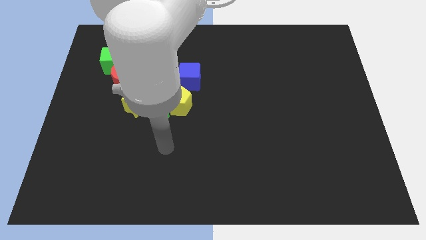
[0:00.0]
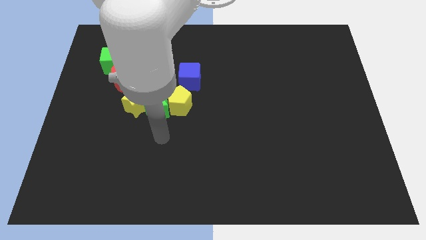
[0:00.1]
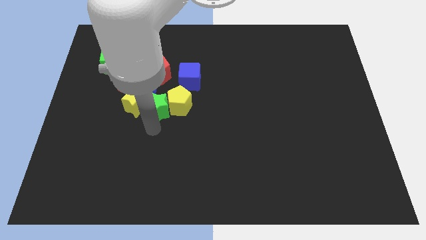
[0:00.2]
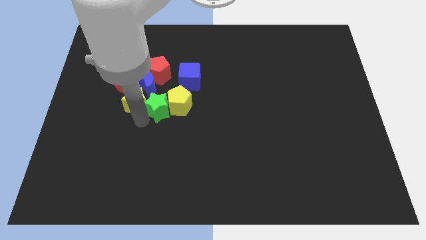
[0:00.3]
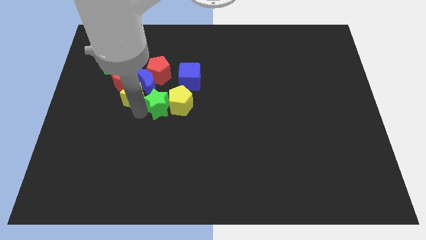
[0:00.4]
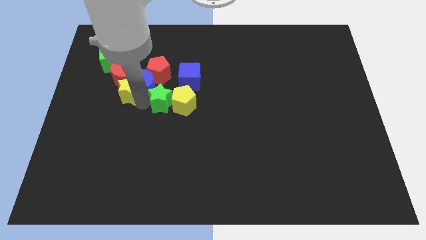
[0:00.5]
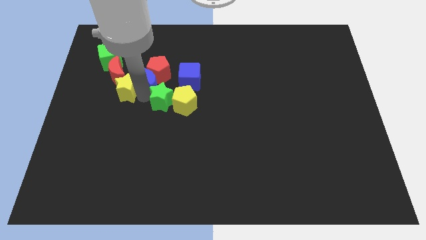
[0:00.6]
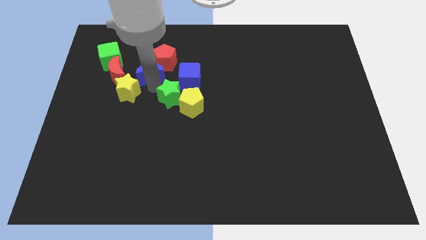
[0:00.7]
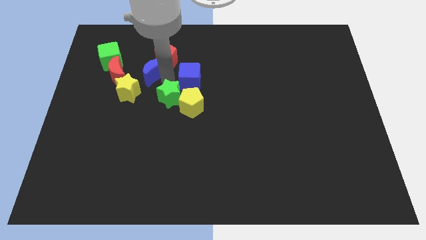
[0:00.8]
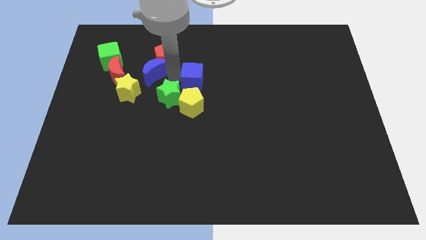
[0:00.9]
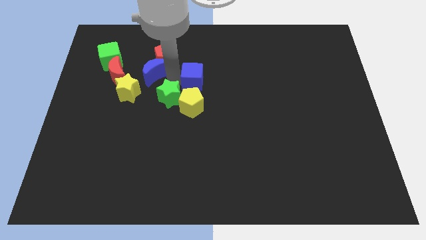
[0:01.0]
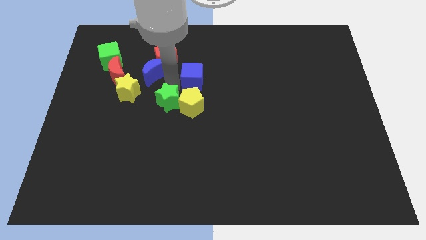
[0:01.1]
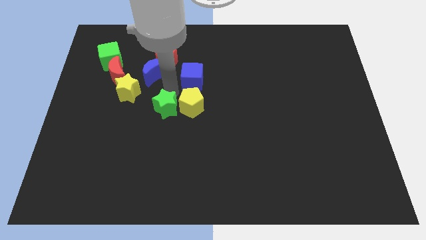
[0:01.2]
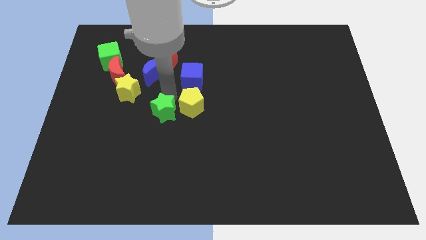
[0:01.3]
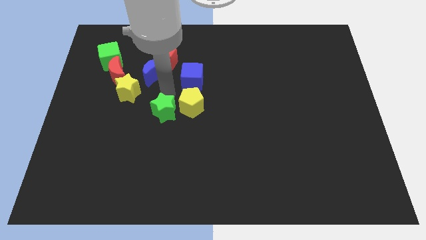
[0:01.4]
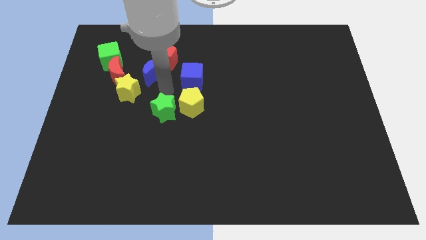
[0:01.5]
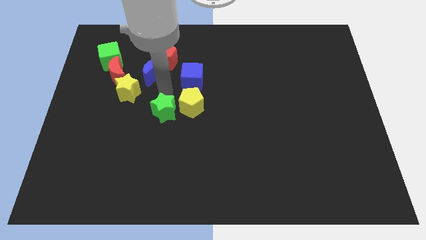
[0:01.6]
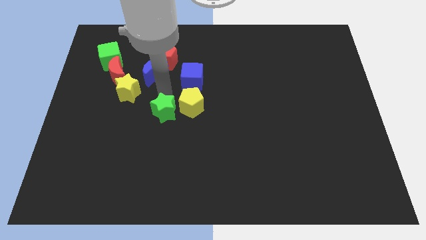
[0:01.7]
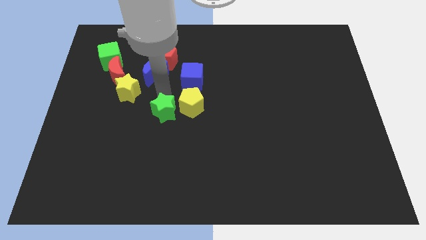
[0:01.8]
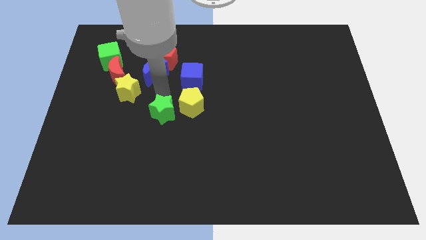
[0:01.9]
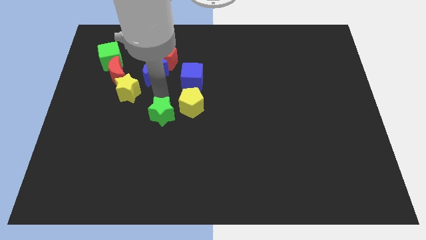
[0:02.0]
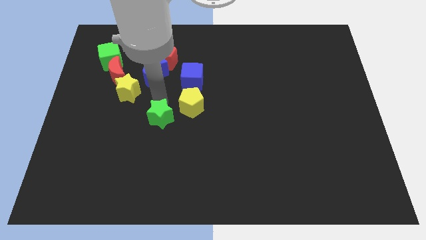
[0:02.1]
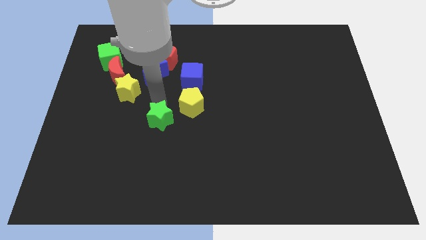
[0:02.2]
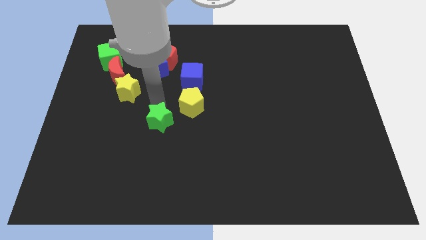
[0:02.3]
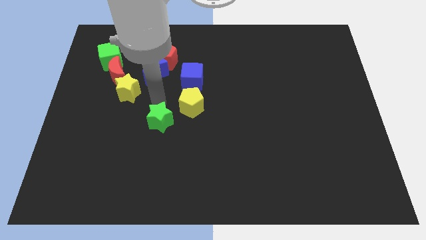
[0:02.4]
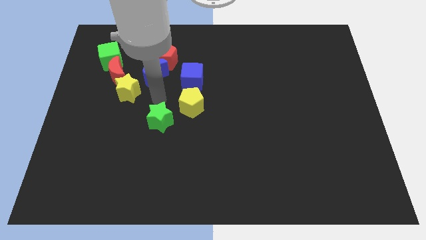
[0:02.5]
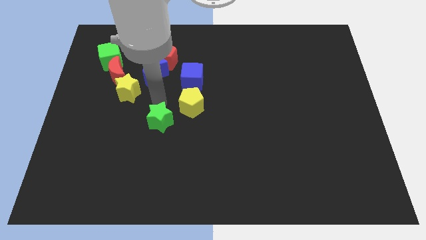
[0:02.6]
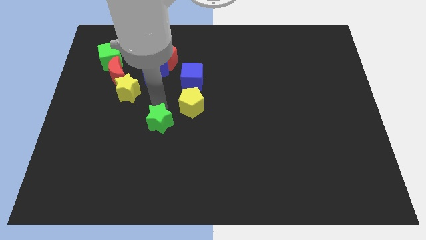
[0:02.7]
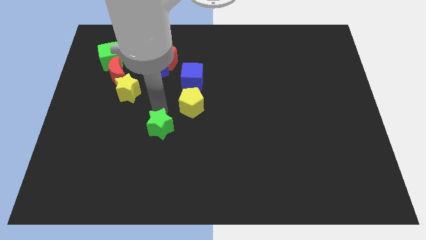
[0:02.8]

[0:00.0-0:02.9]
separate the green star from the yellow pentagon, yellow star, and blue moon

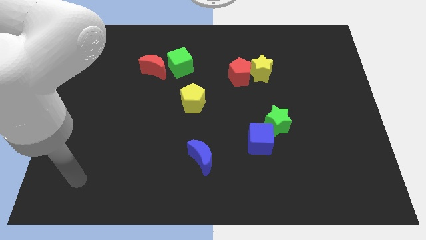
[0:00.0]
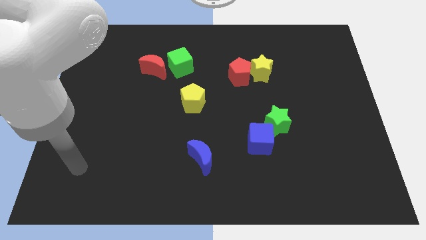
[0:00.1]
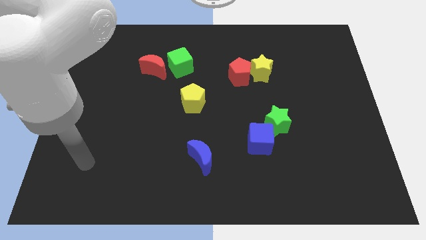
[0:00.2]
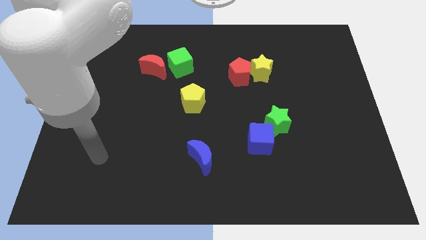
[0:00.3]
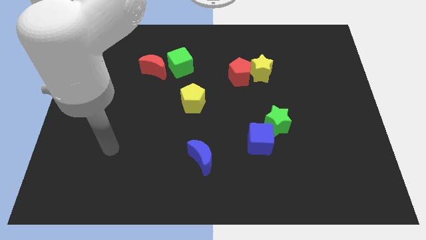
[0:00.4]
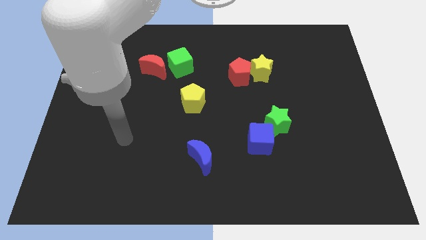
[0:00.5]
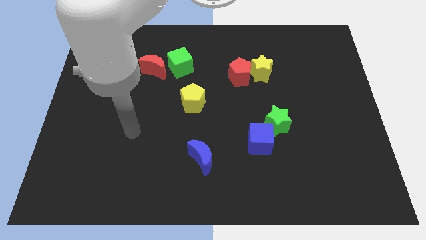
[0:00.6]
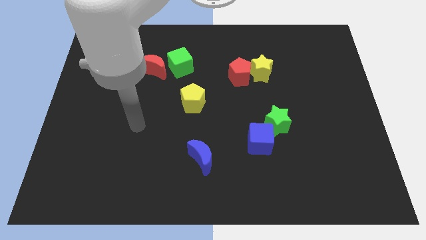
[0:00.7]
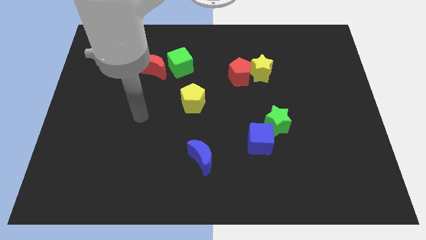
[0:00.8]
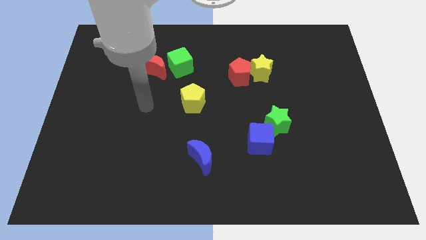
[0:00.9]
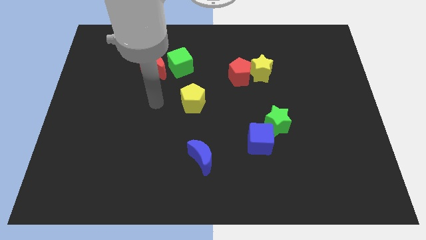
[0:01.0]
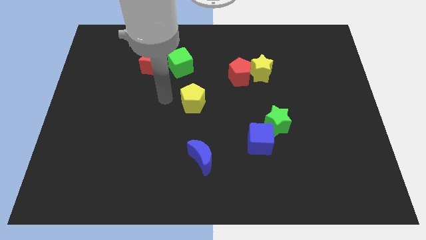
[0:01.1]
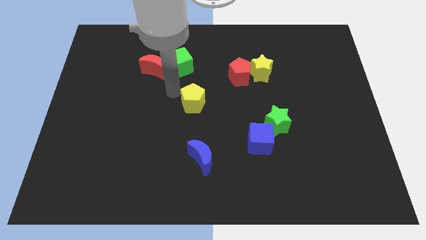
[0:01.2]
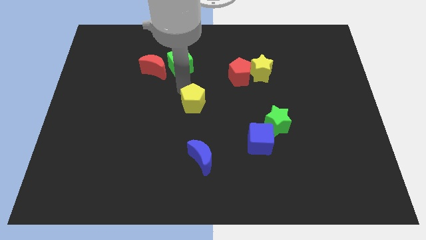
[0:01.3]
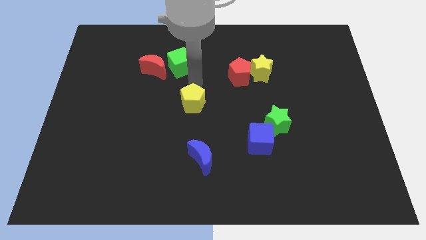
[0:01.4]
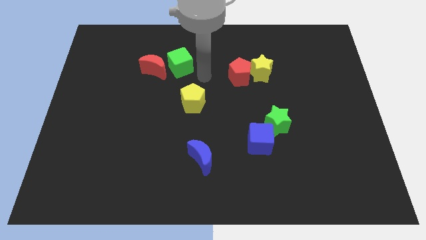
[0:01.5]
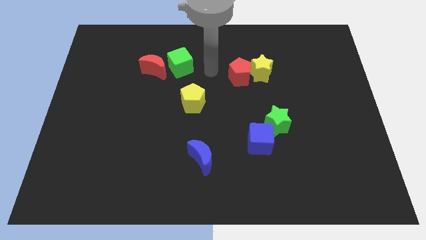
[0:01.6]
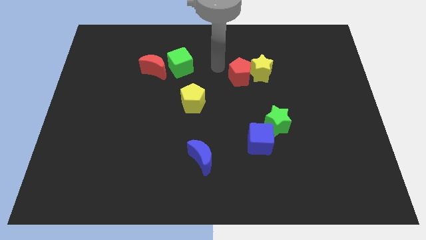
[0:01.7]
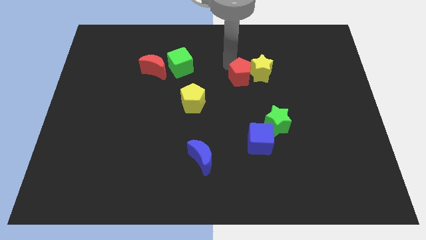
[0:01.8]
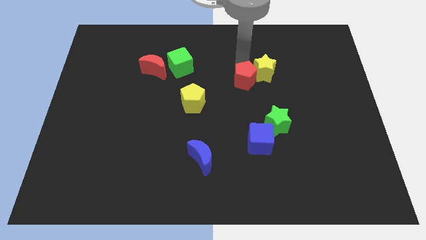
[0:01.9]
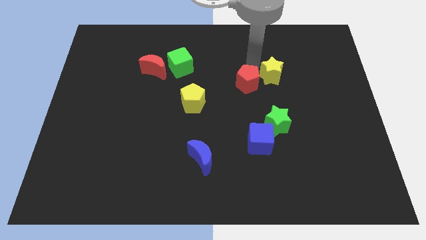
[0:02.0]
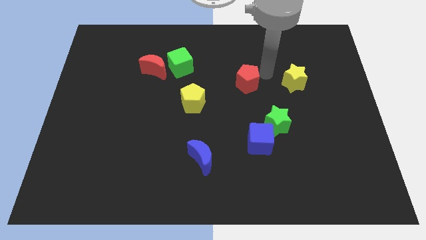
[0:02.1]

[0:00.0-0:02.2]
separate the red pentagon from the yellow star

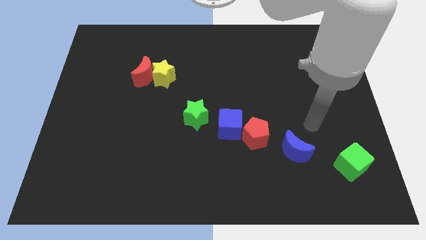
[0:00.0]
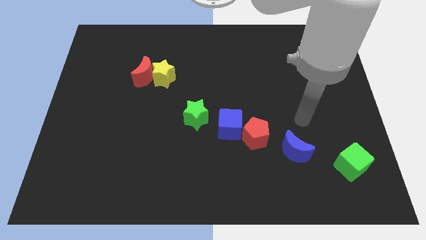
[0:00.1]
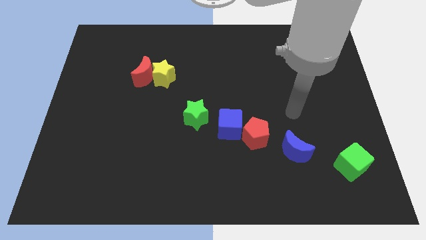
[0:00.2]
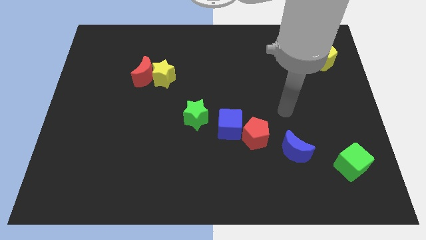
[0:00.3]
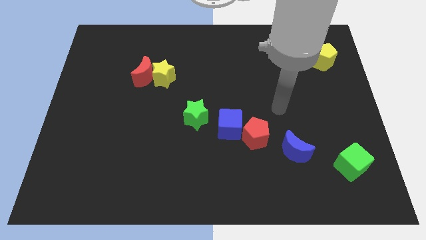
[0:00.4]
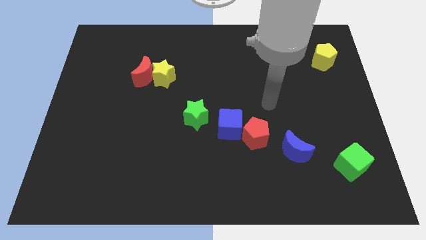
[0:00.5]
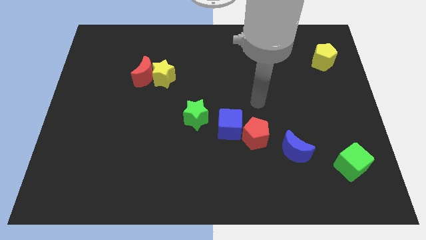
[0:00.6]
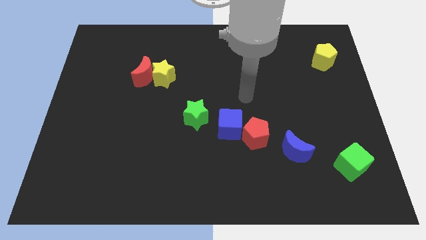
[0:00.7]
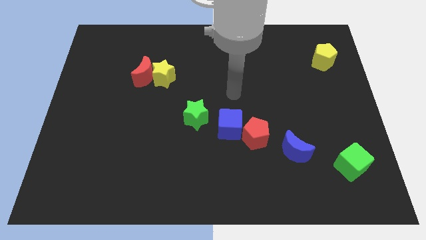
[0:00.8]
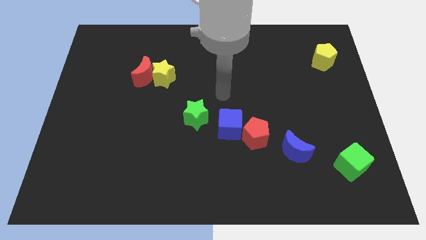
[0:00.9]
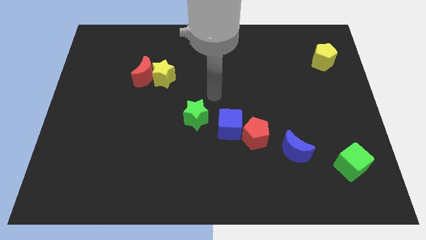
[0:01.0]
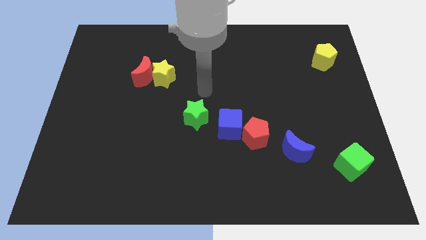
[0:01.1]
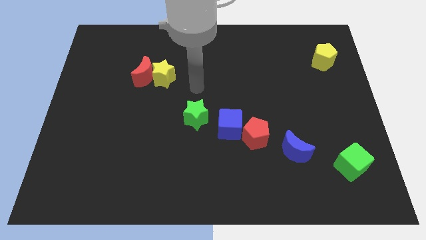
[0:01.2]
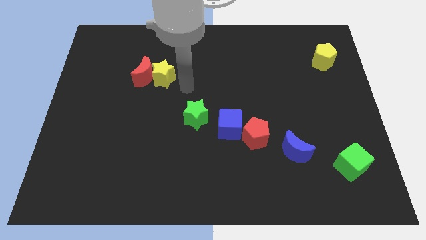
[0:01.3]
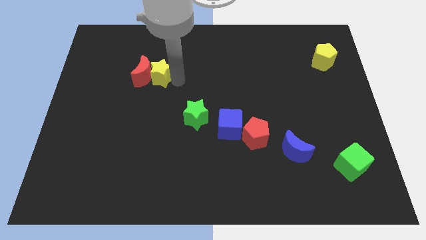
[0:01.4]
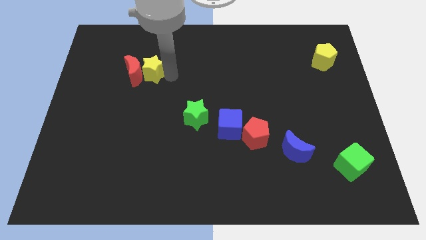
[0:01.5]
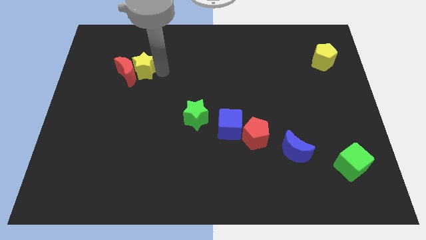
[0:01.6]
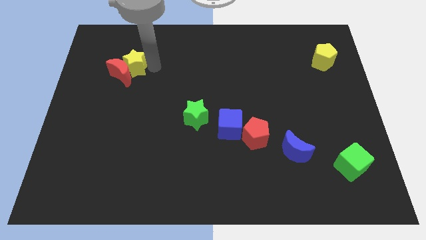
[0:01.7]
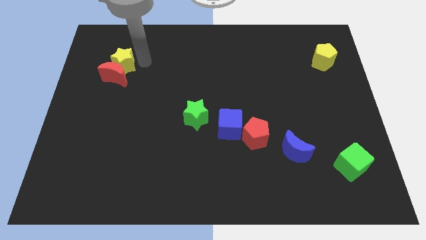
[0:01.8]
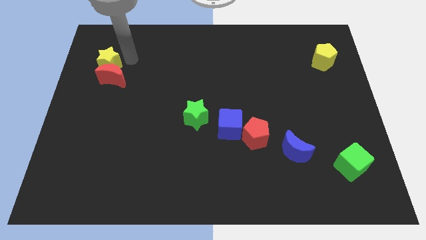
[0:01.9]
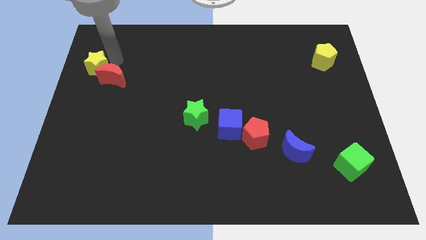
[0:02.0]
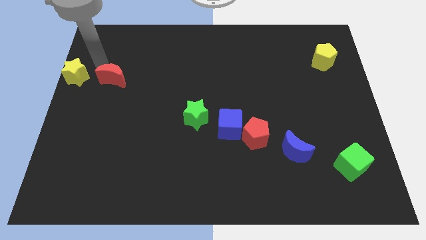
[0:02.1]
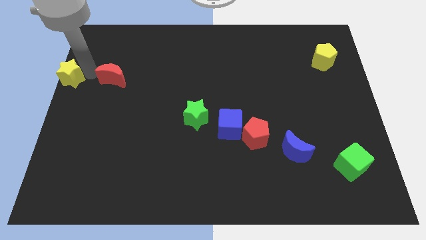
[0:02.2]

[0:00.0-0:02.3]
separate the red moon from the yellow star

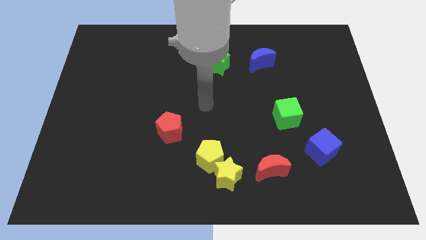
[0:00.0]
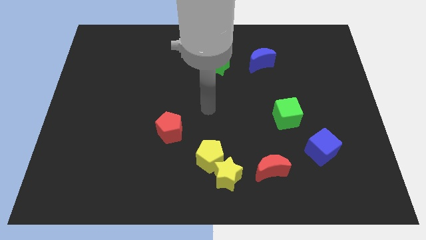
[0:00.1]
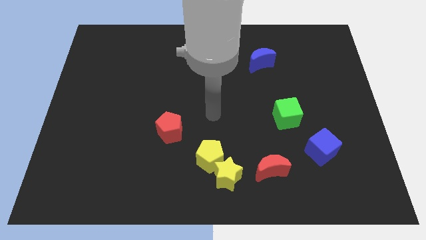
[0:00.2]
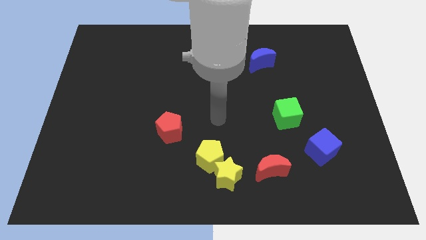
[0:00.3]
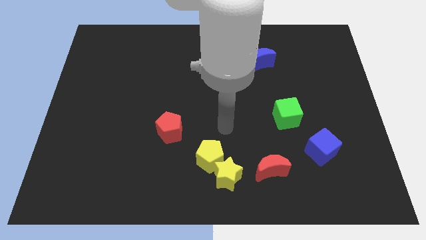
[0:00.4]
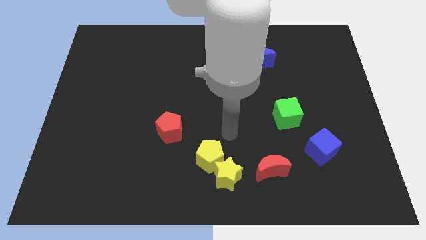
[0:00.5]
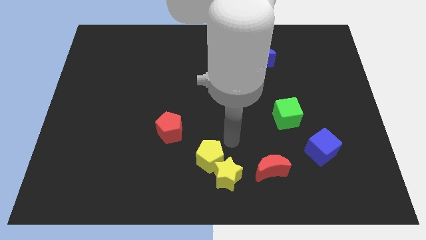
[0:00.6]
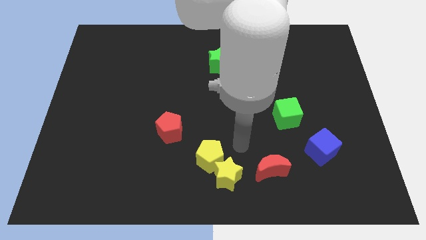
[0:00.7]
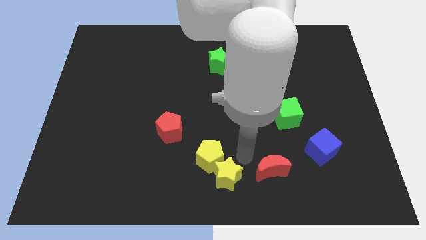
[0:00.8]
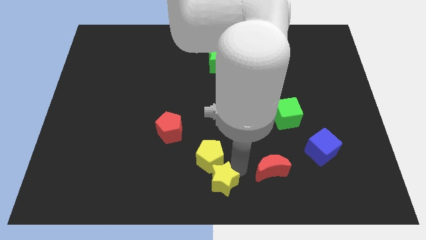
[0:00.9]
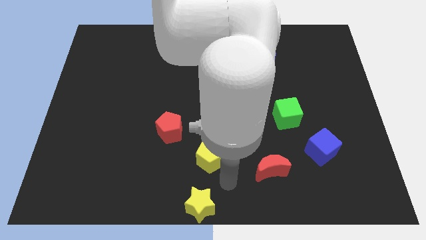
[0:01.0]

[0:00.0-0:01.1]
pull the yellow pentagon apart from the yellow star

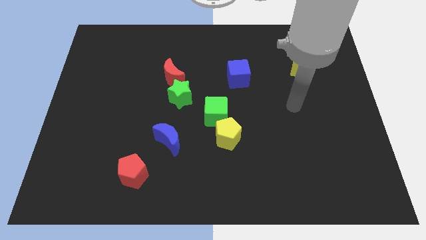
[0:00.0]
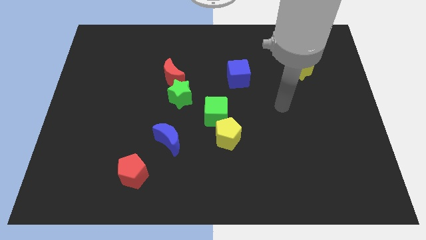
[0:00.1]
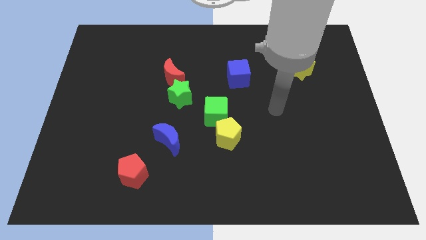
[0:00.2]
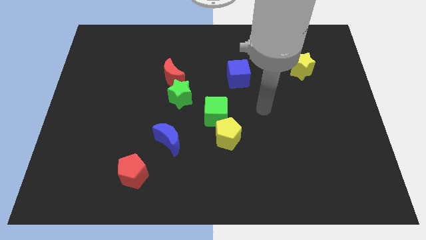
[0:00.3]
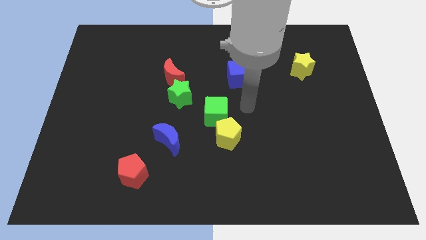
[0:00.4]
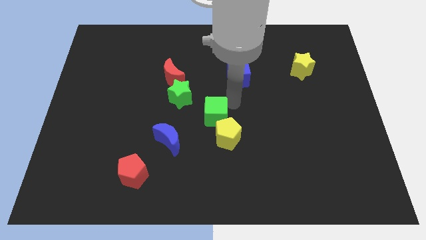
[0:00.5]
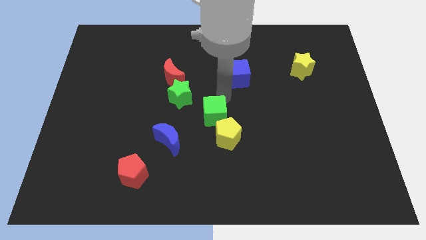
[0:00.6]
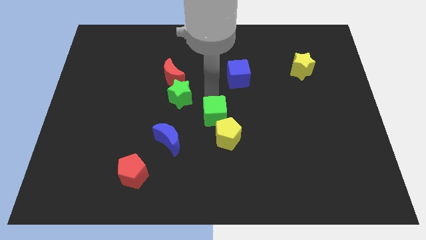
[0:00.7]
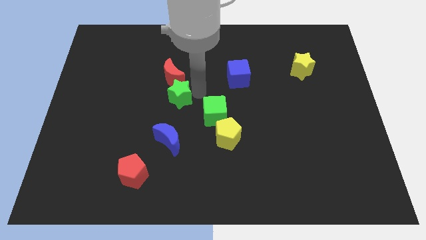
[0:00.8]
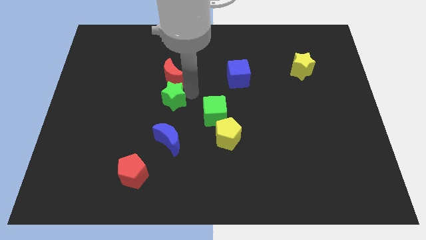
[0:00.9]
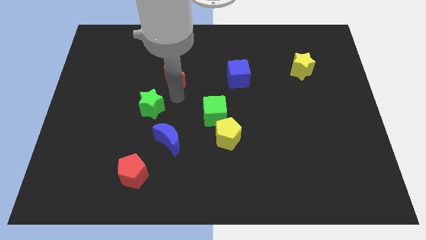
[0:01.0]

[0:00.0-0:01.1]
pull the red moon apart from the green star
